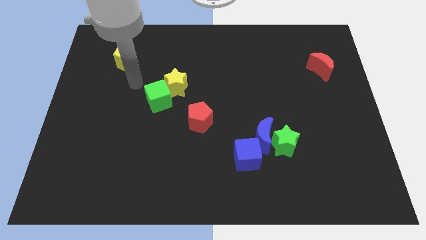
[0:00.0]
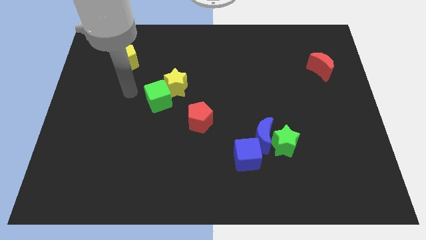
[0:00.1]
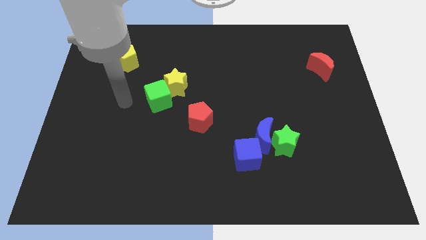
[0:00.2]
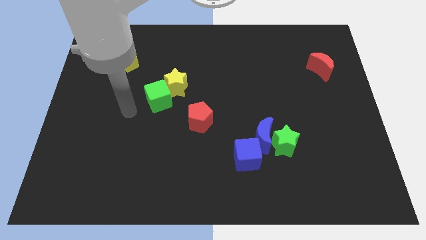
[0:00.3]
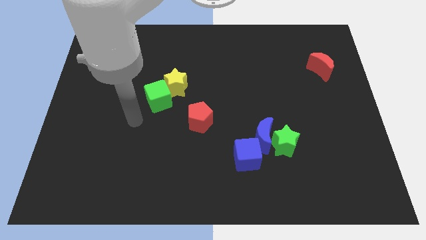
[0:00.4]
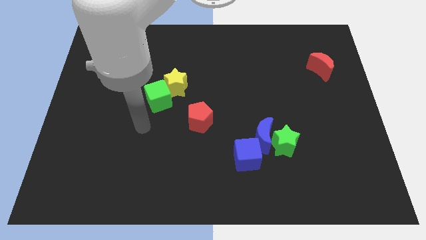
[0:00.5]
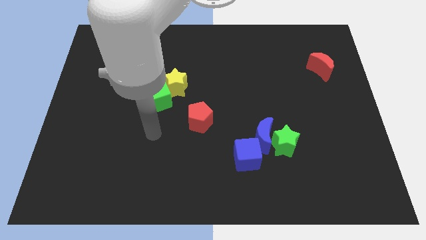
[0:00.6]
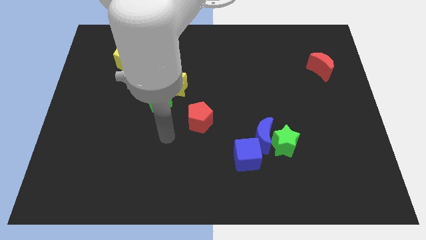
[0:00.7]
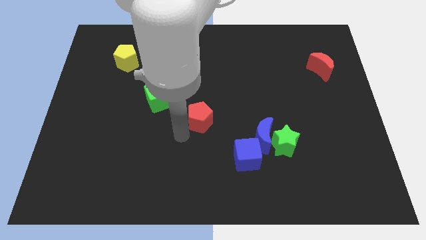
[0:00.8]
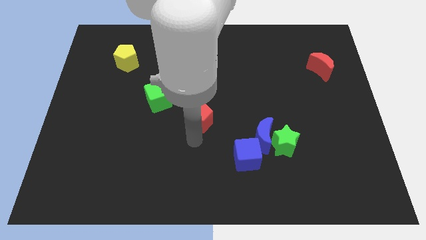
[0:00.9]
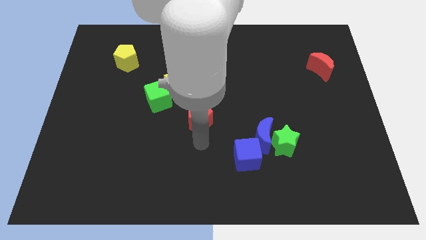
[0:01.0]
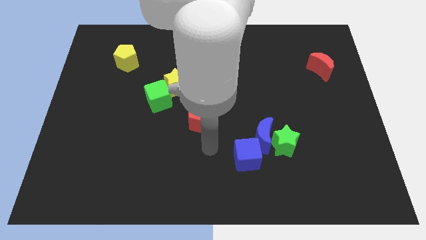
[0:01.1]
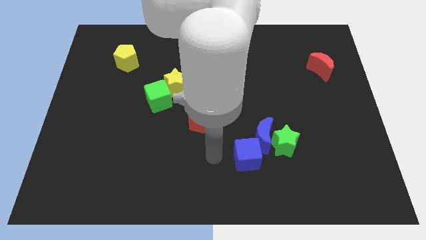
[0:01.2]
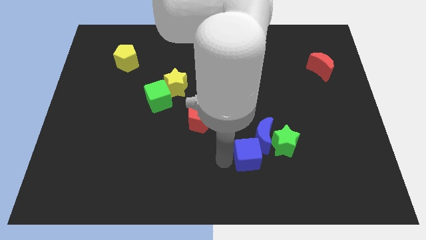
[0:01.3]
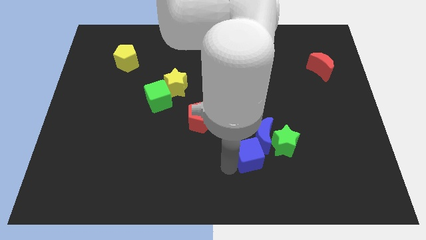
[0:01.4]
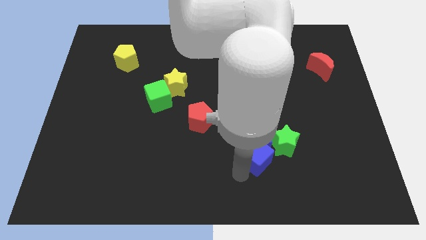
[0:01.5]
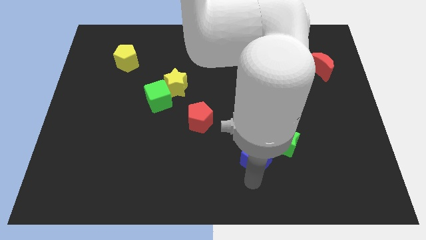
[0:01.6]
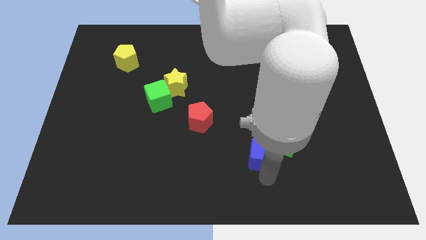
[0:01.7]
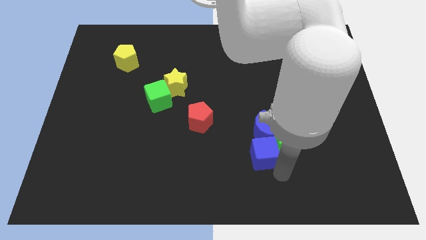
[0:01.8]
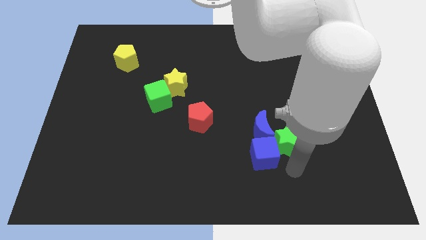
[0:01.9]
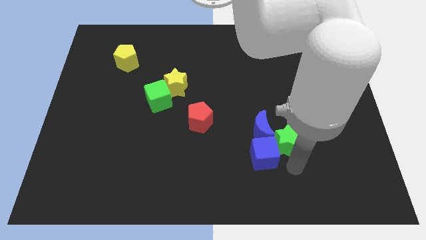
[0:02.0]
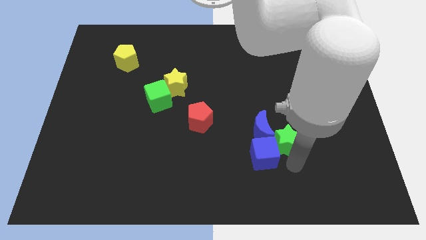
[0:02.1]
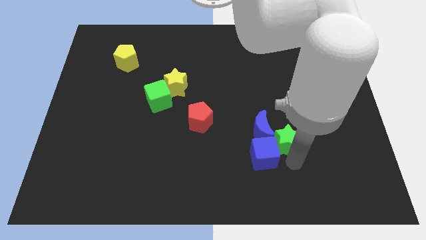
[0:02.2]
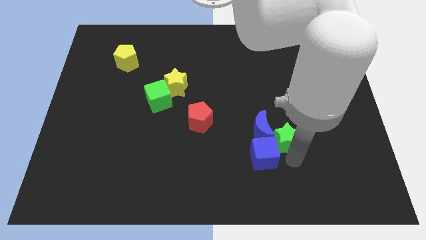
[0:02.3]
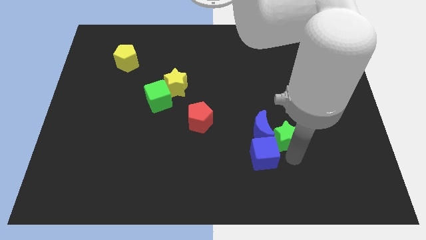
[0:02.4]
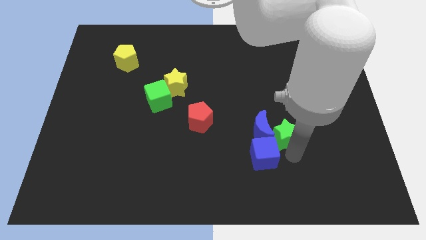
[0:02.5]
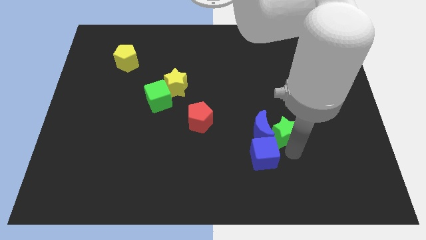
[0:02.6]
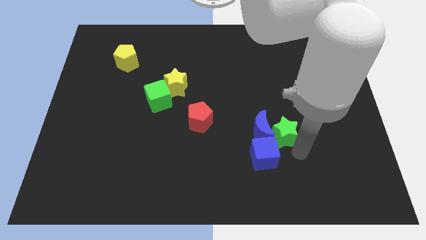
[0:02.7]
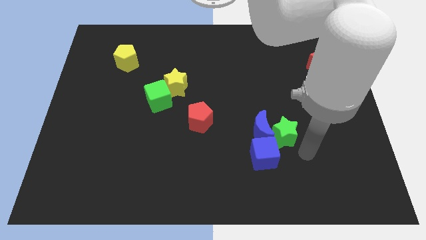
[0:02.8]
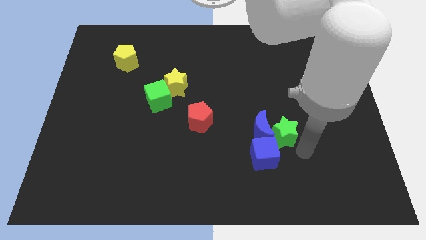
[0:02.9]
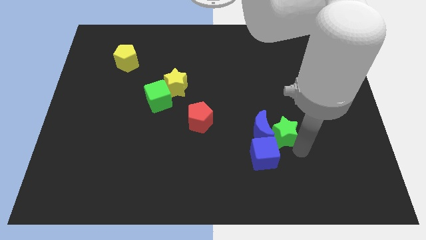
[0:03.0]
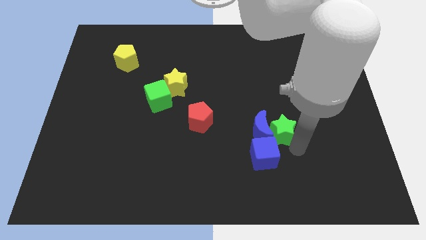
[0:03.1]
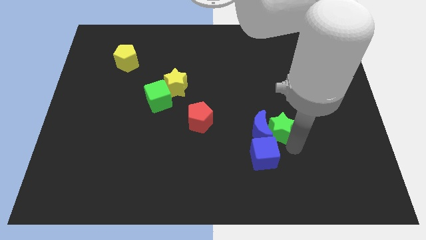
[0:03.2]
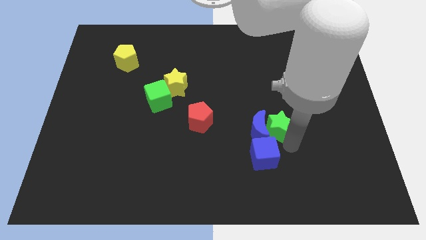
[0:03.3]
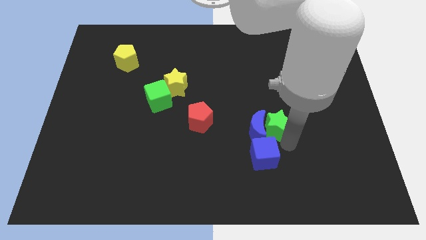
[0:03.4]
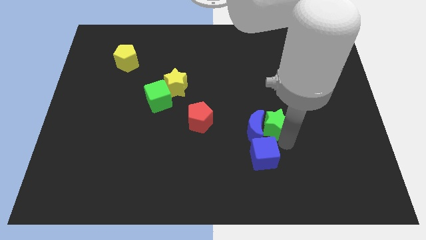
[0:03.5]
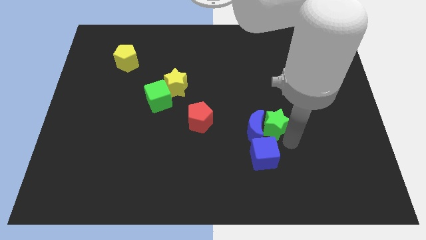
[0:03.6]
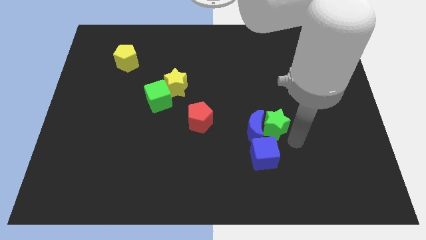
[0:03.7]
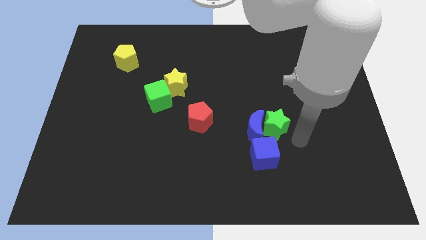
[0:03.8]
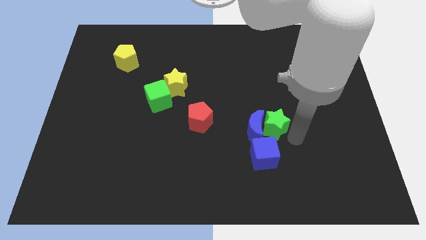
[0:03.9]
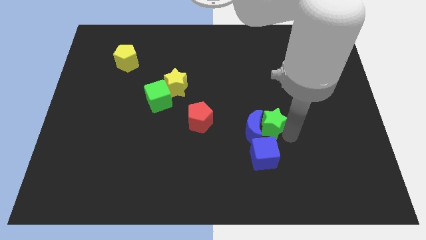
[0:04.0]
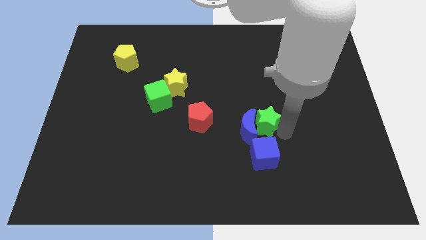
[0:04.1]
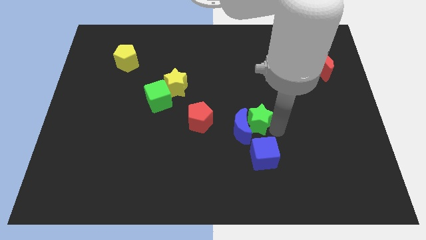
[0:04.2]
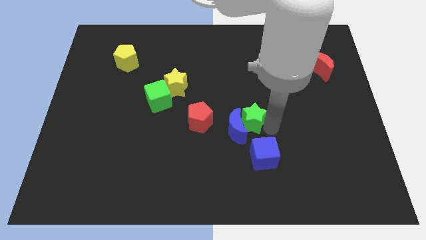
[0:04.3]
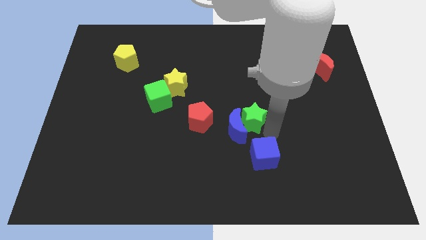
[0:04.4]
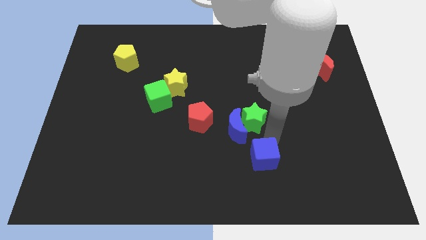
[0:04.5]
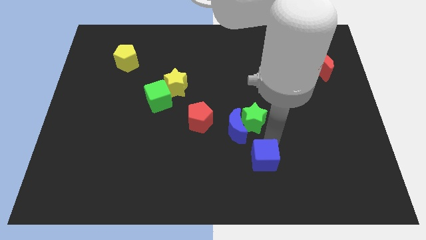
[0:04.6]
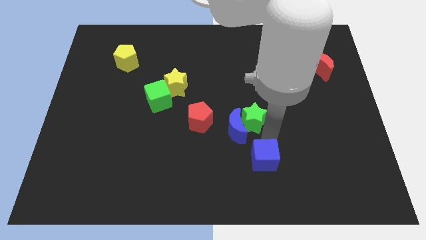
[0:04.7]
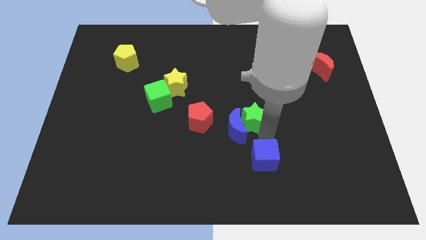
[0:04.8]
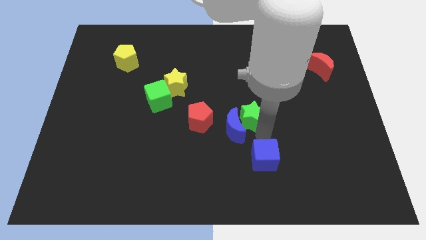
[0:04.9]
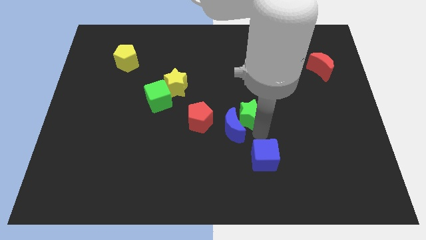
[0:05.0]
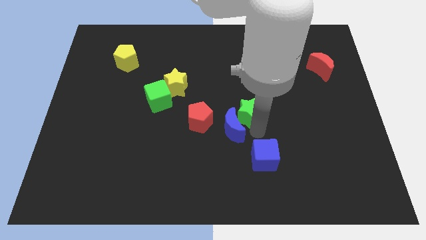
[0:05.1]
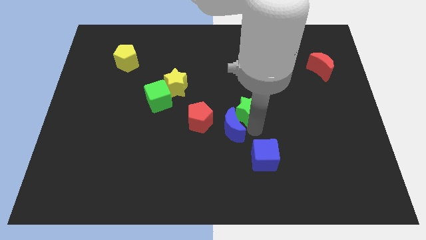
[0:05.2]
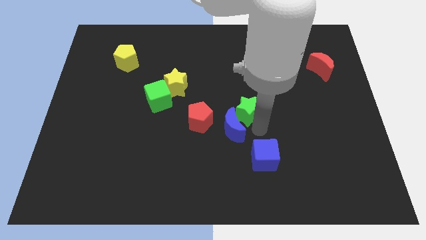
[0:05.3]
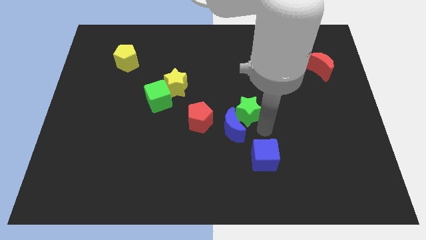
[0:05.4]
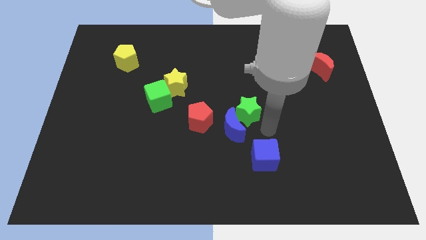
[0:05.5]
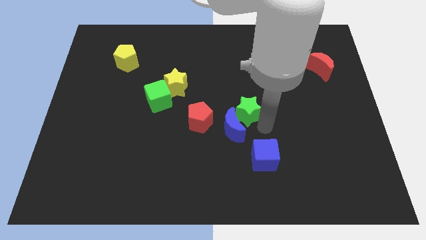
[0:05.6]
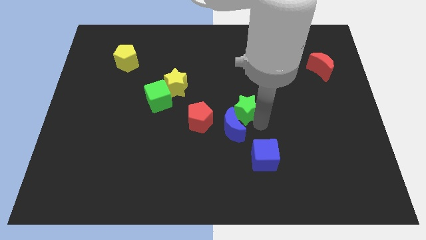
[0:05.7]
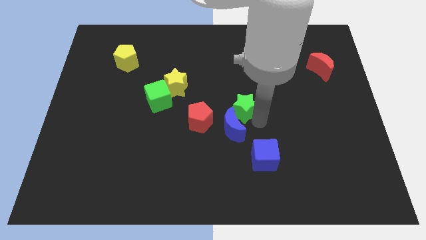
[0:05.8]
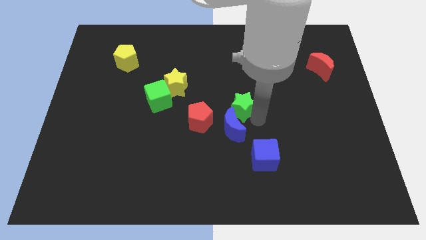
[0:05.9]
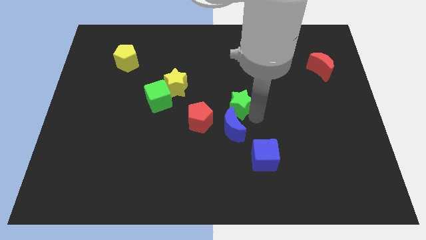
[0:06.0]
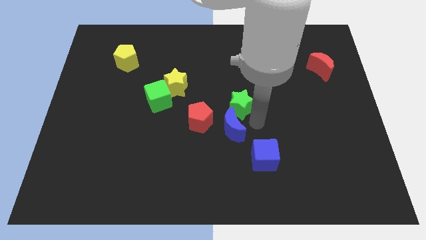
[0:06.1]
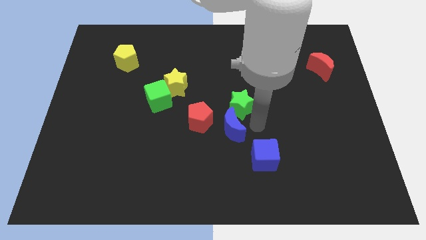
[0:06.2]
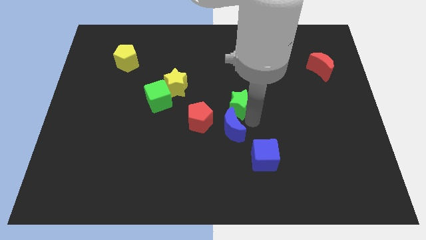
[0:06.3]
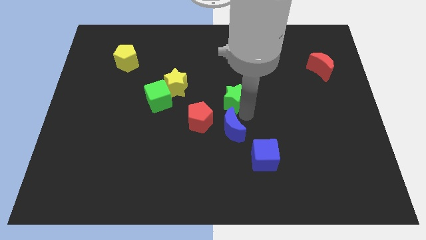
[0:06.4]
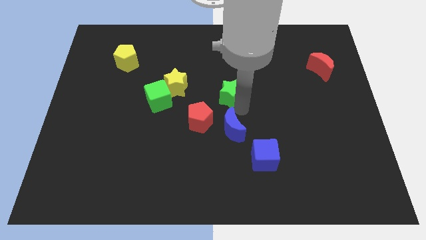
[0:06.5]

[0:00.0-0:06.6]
slide the green star just right of the yellow star

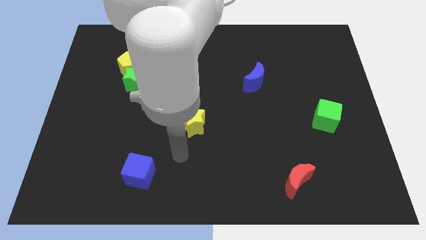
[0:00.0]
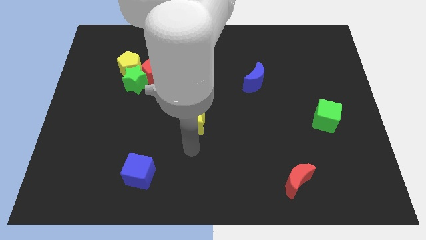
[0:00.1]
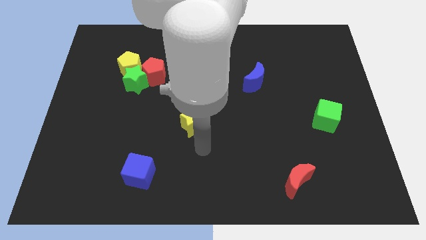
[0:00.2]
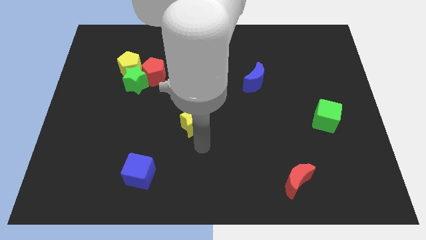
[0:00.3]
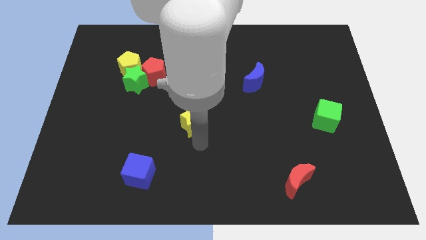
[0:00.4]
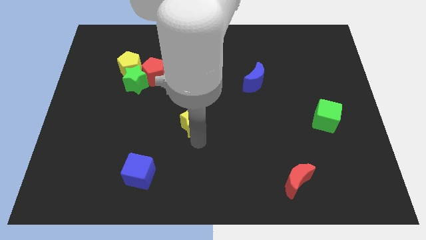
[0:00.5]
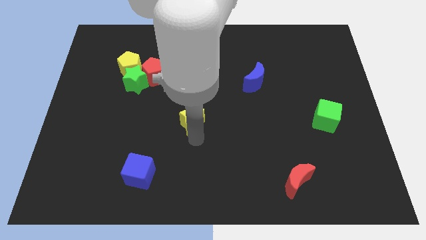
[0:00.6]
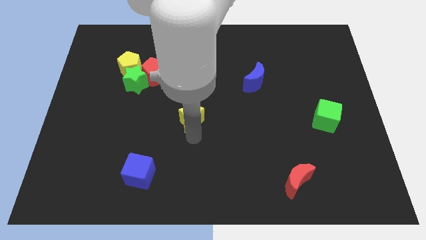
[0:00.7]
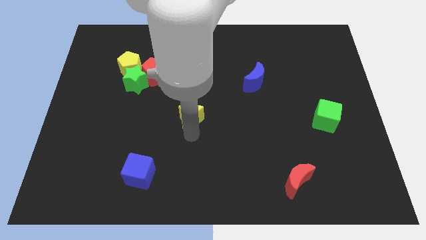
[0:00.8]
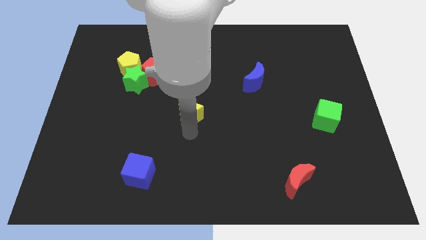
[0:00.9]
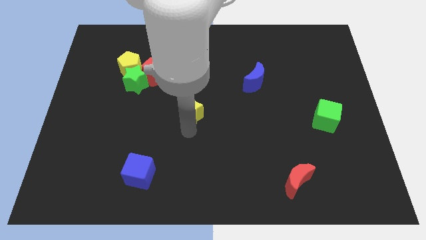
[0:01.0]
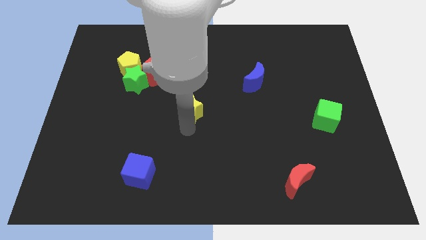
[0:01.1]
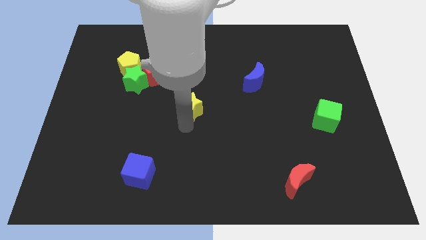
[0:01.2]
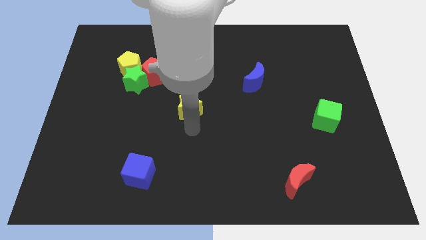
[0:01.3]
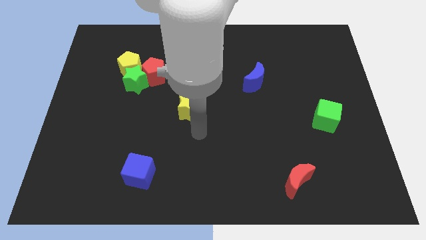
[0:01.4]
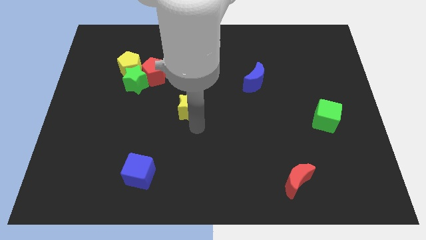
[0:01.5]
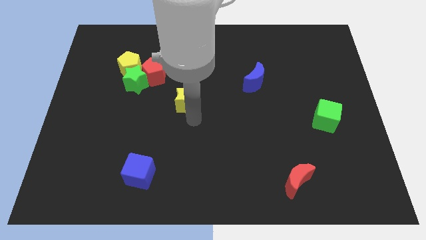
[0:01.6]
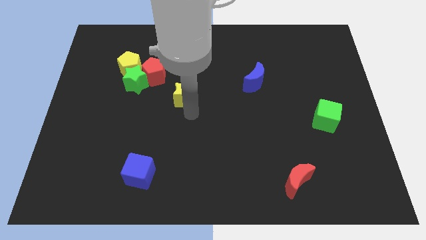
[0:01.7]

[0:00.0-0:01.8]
slide the yellow star to the right of the green star
